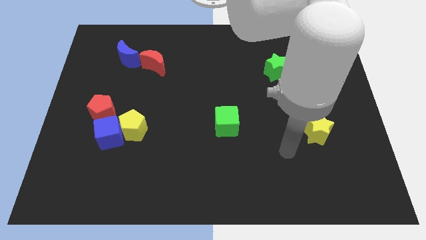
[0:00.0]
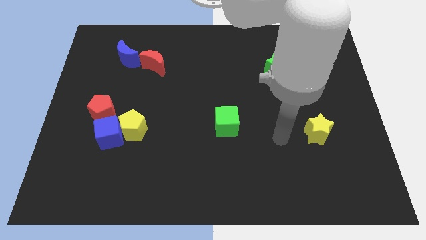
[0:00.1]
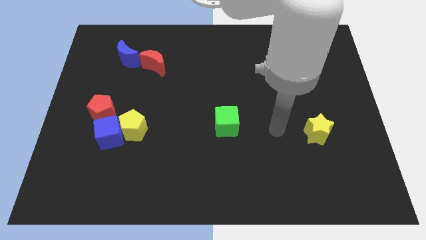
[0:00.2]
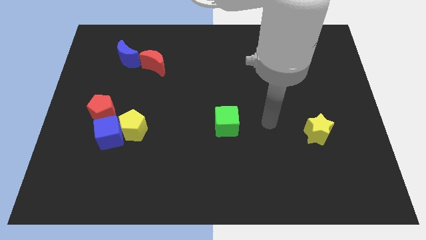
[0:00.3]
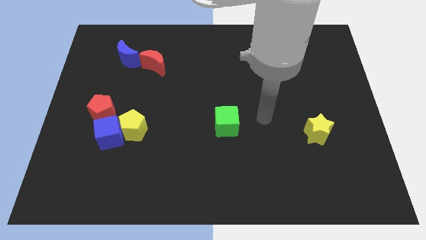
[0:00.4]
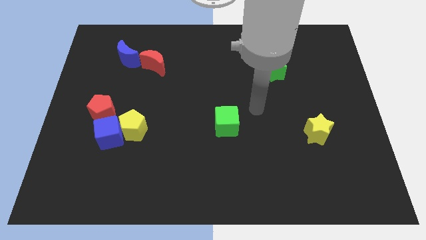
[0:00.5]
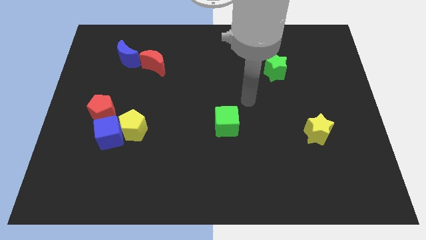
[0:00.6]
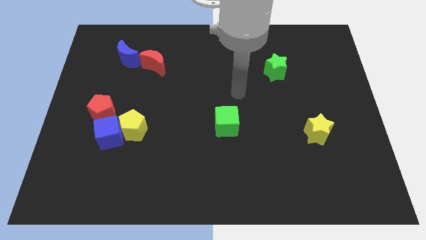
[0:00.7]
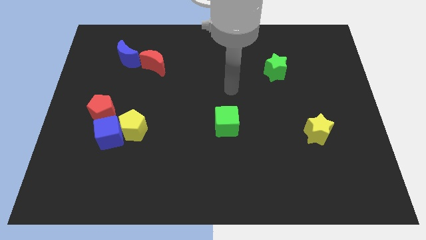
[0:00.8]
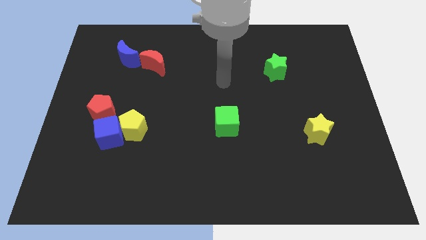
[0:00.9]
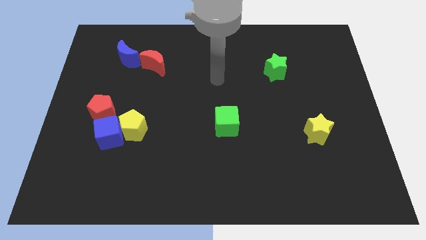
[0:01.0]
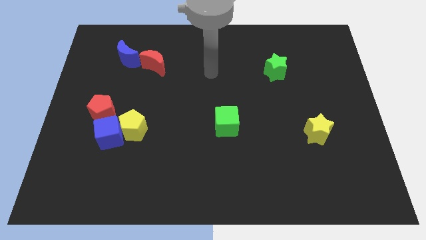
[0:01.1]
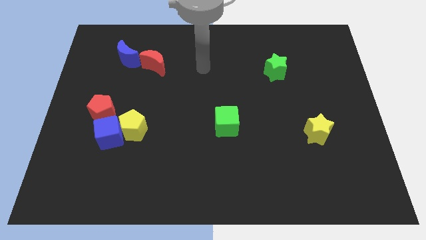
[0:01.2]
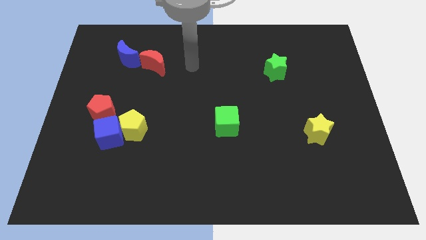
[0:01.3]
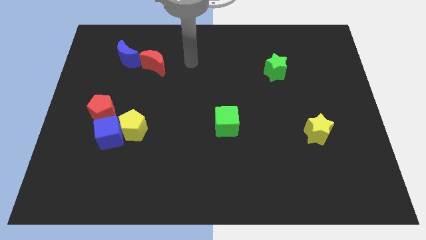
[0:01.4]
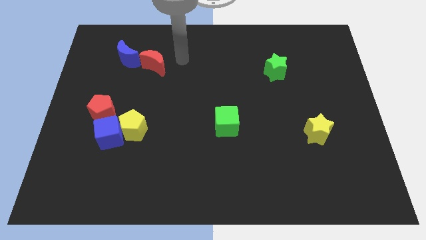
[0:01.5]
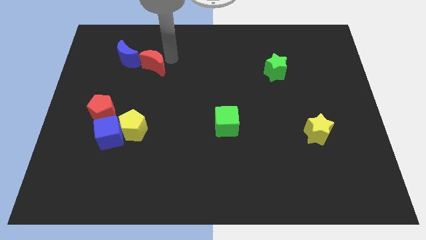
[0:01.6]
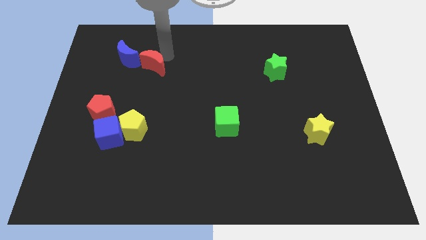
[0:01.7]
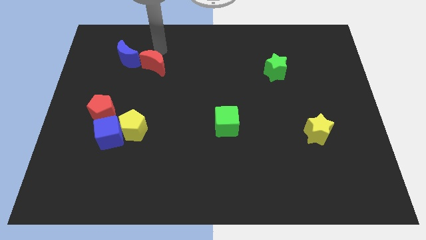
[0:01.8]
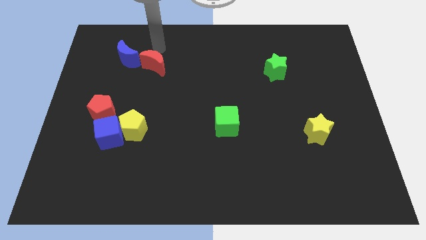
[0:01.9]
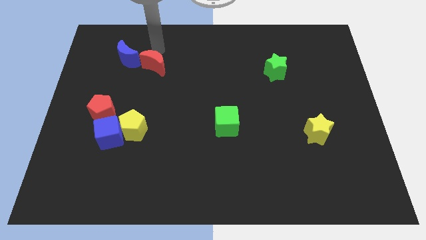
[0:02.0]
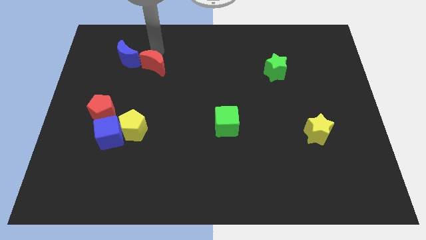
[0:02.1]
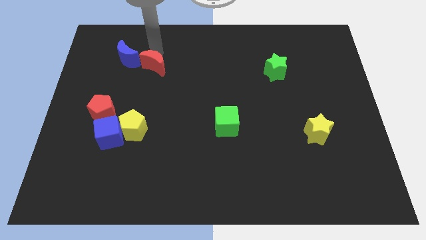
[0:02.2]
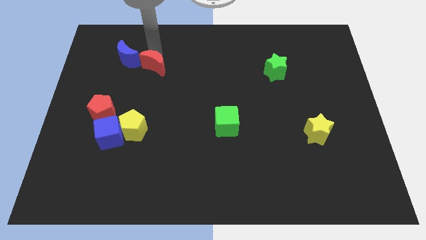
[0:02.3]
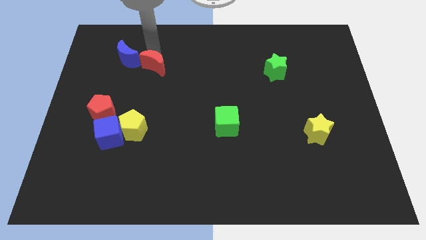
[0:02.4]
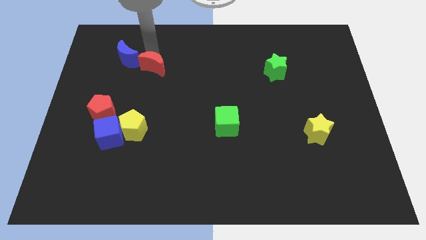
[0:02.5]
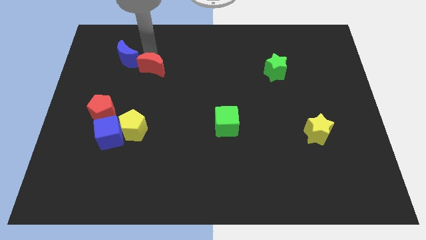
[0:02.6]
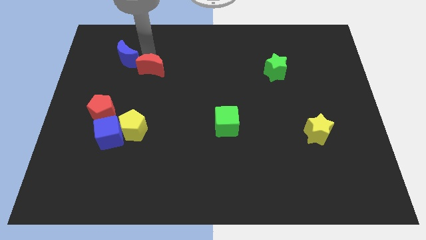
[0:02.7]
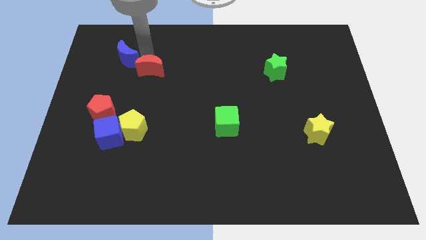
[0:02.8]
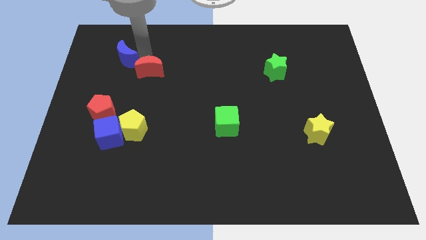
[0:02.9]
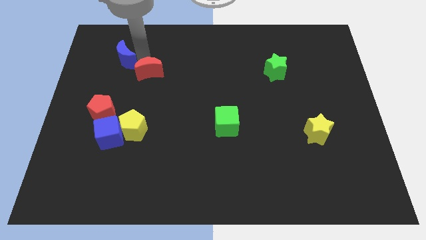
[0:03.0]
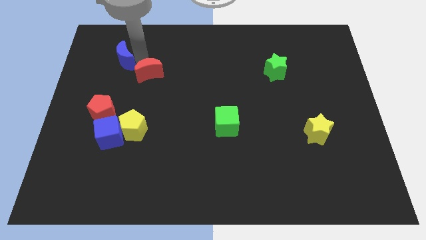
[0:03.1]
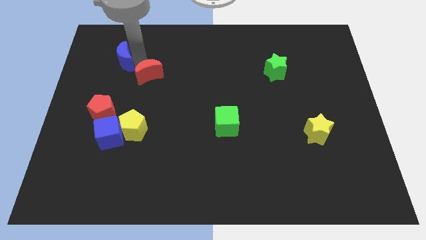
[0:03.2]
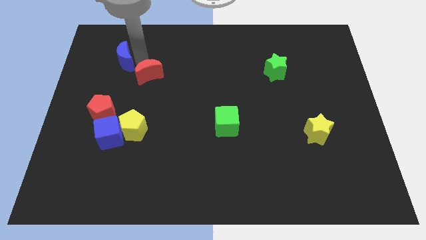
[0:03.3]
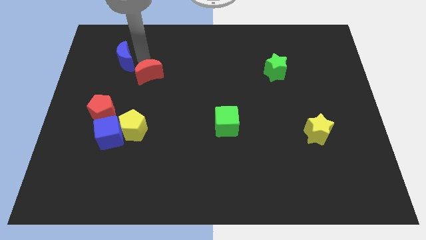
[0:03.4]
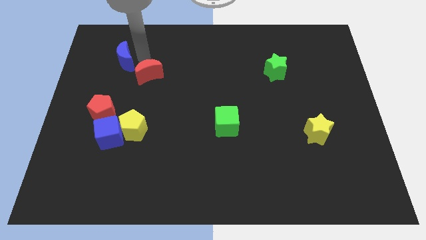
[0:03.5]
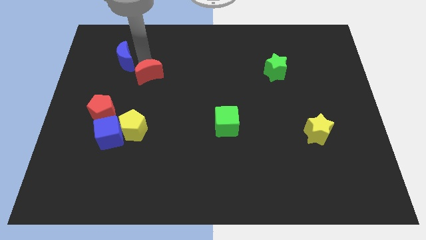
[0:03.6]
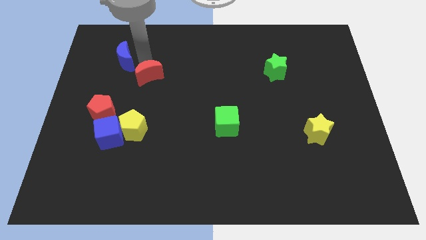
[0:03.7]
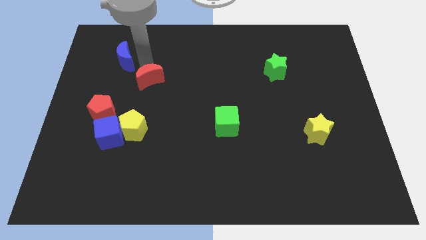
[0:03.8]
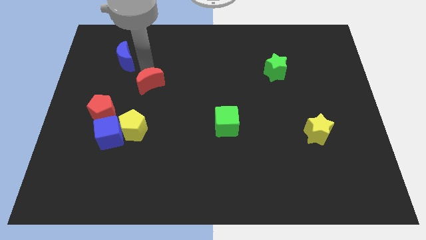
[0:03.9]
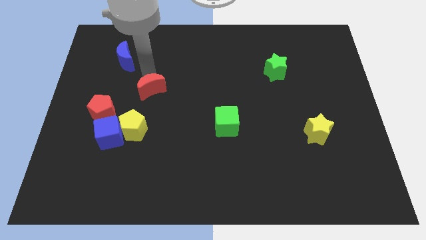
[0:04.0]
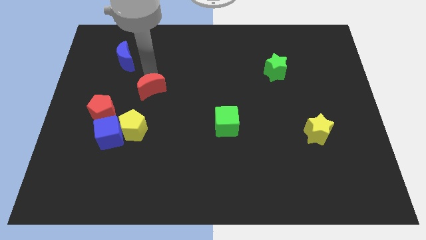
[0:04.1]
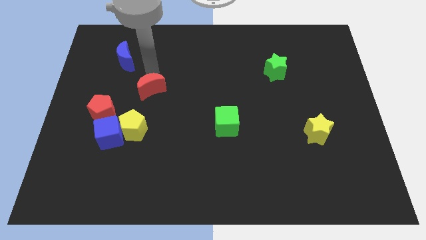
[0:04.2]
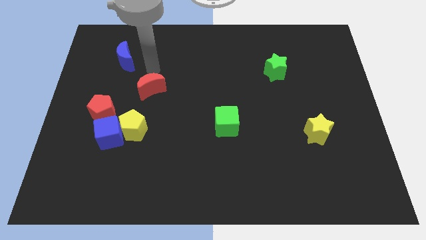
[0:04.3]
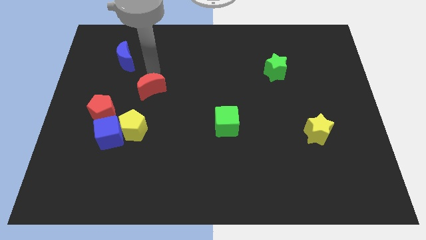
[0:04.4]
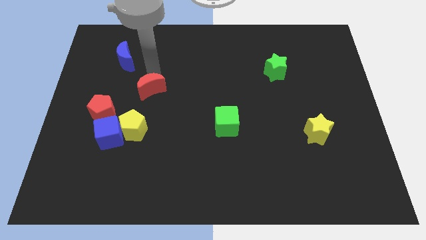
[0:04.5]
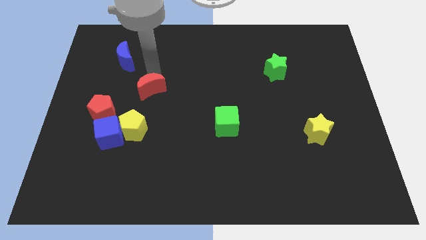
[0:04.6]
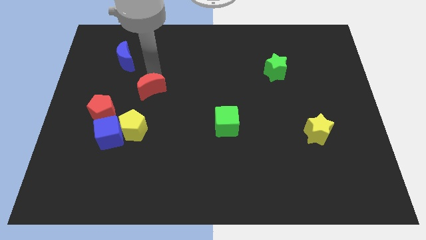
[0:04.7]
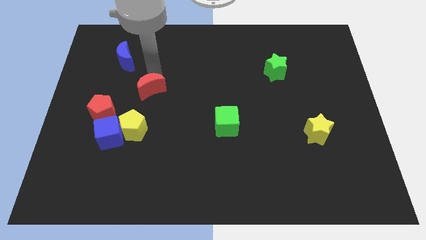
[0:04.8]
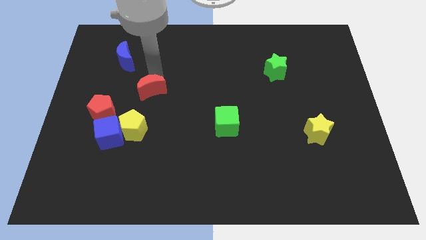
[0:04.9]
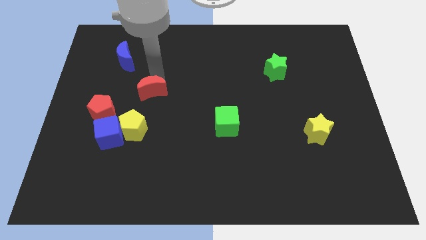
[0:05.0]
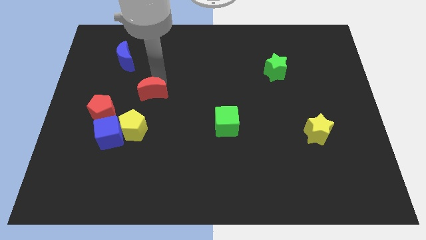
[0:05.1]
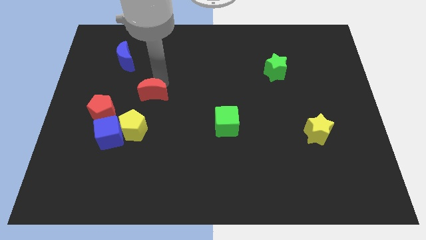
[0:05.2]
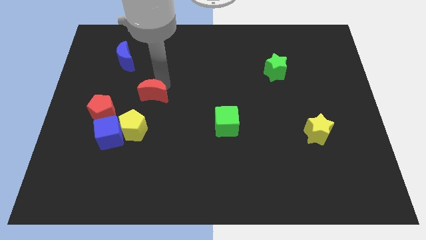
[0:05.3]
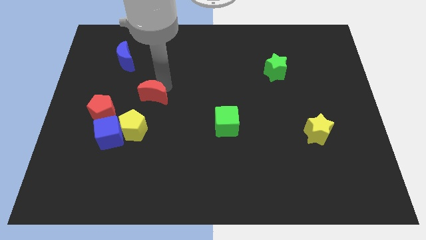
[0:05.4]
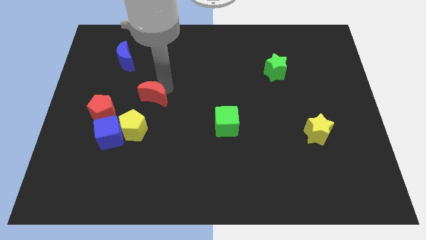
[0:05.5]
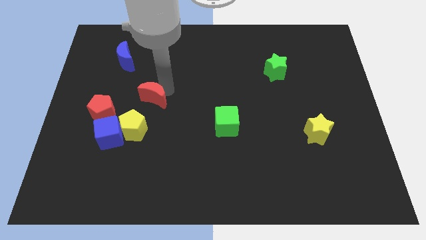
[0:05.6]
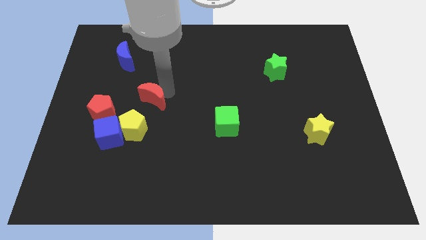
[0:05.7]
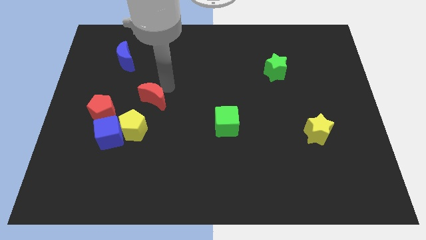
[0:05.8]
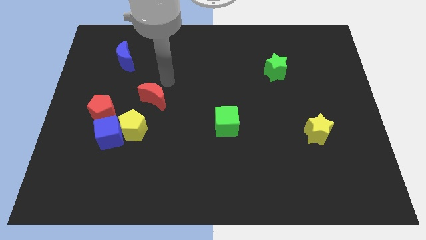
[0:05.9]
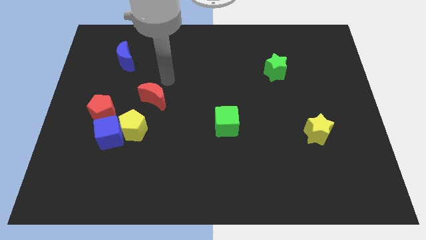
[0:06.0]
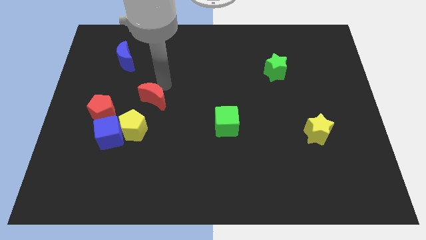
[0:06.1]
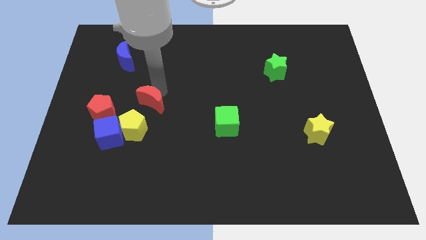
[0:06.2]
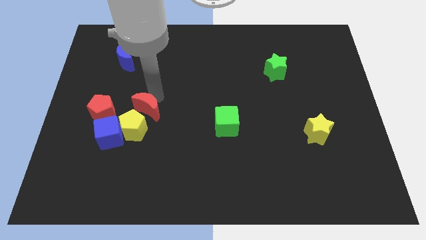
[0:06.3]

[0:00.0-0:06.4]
slide the red moon towards the yellow pentagon

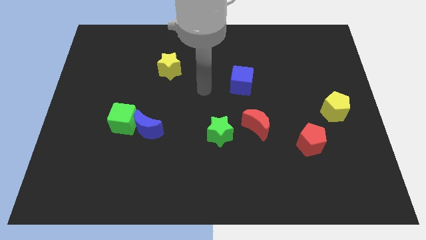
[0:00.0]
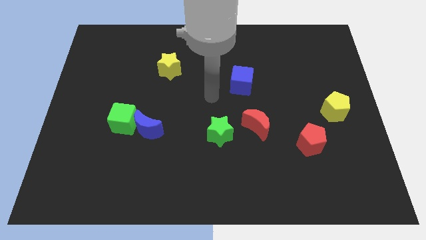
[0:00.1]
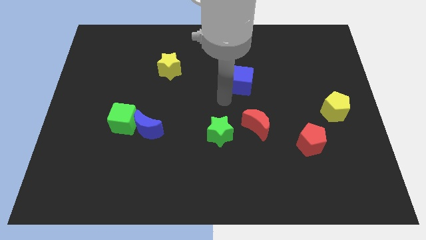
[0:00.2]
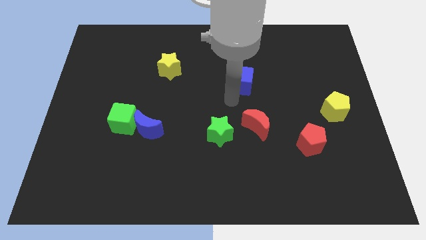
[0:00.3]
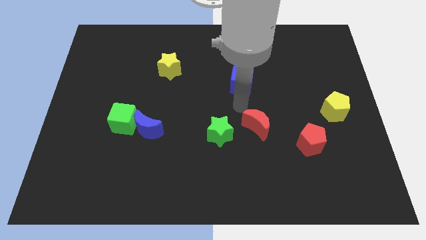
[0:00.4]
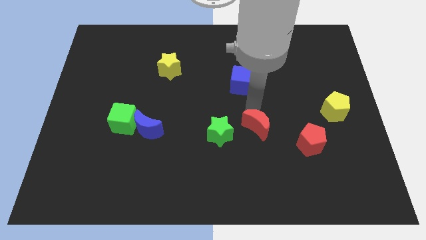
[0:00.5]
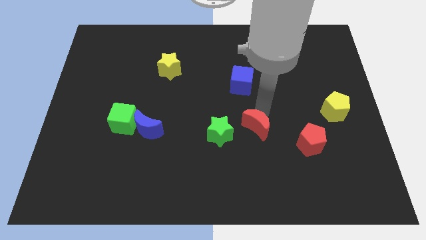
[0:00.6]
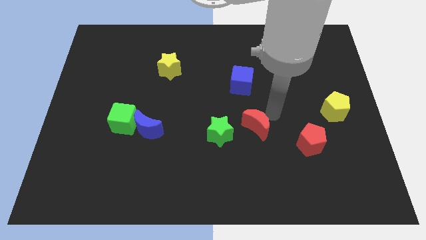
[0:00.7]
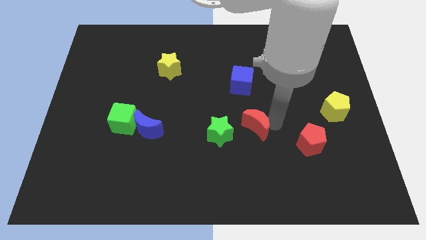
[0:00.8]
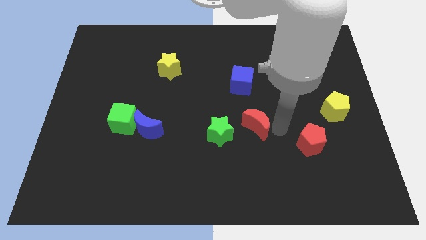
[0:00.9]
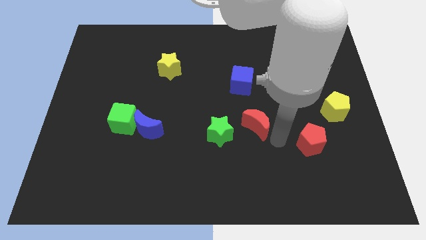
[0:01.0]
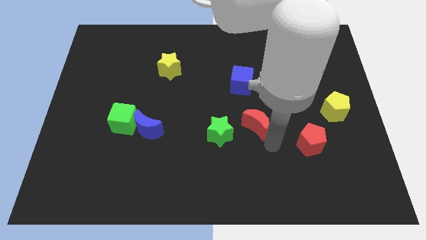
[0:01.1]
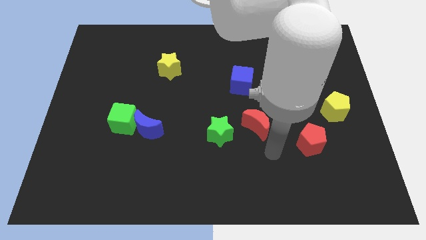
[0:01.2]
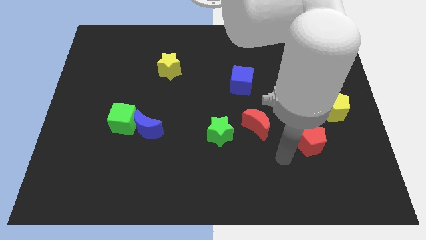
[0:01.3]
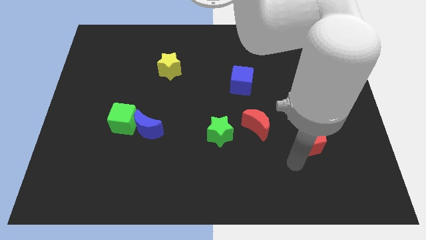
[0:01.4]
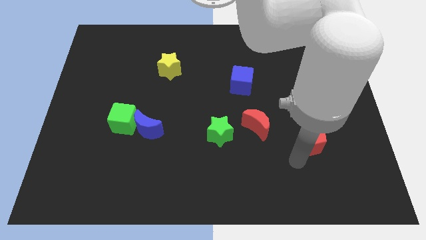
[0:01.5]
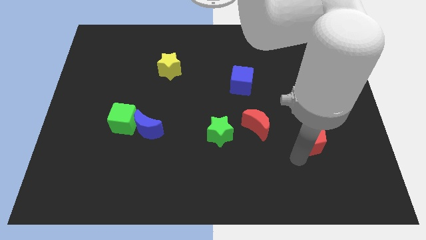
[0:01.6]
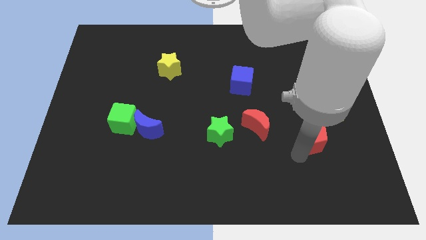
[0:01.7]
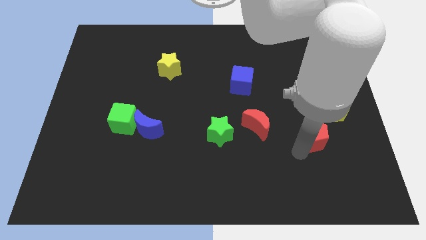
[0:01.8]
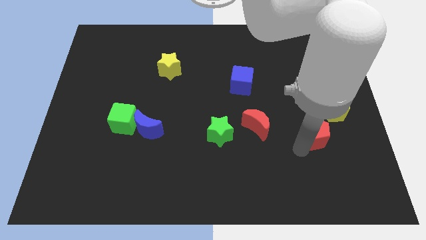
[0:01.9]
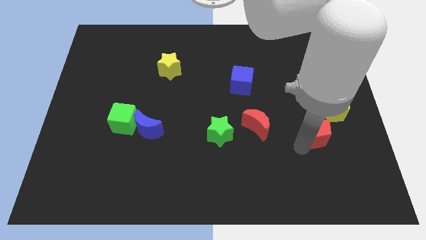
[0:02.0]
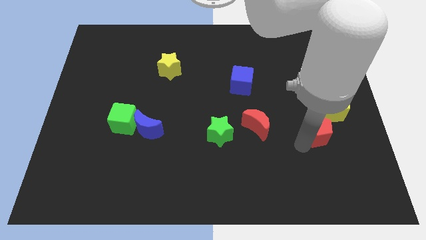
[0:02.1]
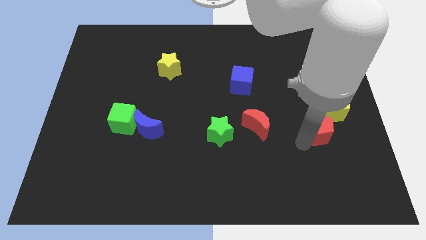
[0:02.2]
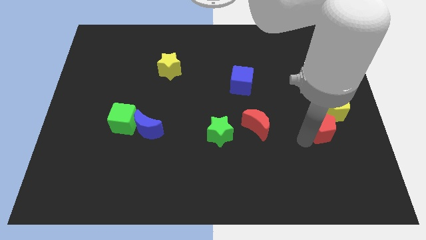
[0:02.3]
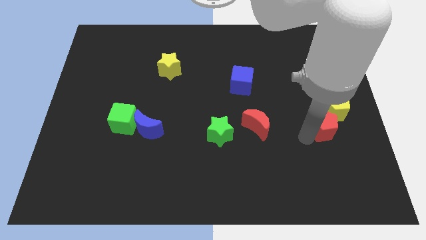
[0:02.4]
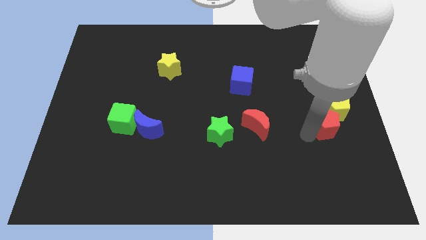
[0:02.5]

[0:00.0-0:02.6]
move the red pentagon to the yellow pentagon
